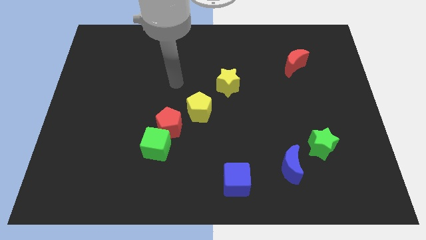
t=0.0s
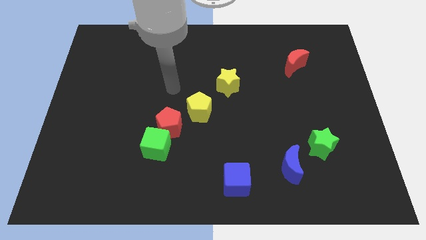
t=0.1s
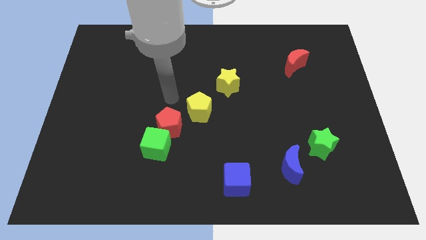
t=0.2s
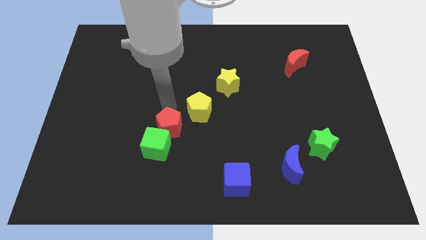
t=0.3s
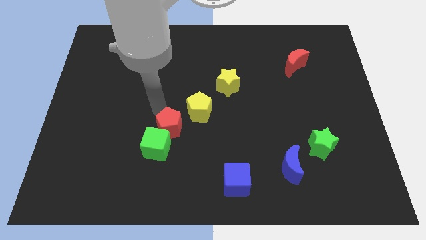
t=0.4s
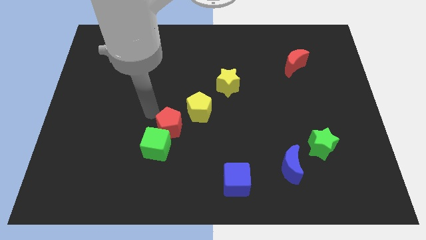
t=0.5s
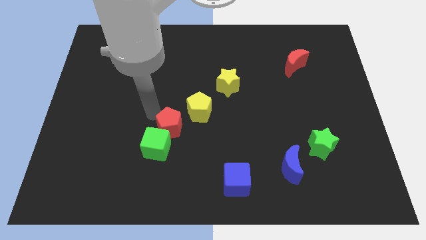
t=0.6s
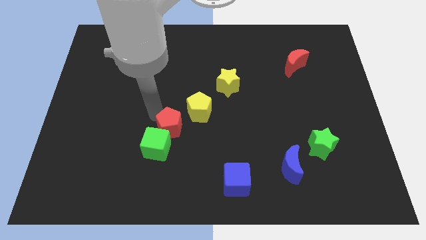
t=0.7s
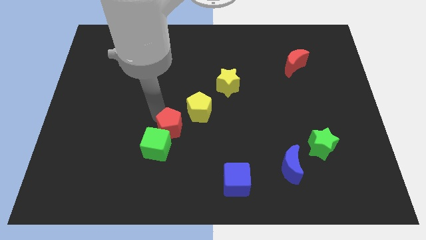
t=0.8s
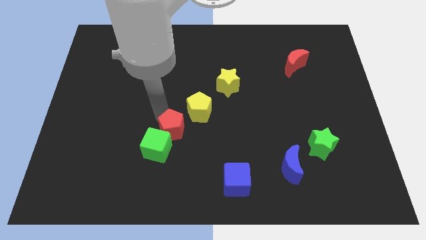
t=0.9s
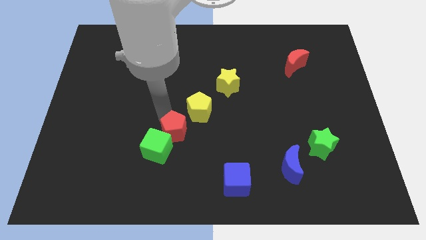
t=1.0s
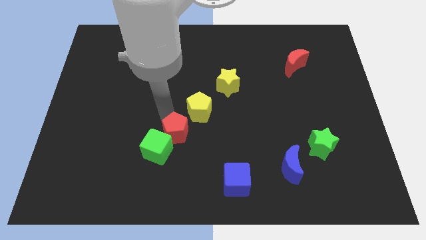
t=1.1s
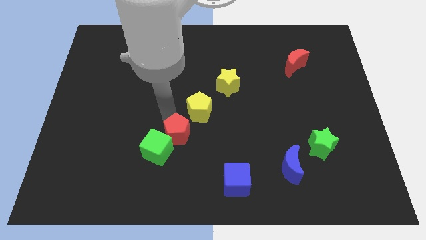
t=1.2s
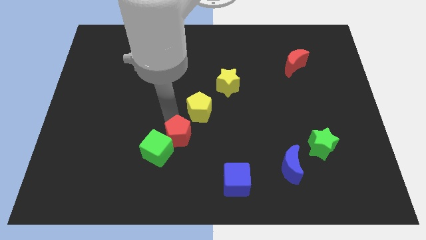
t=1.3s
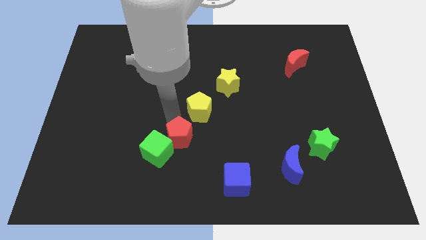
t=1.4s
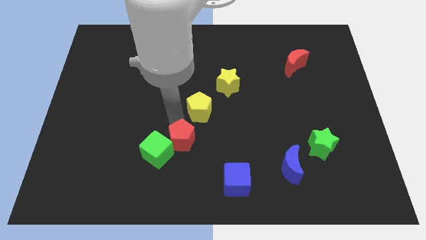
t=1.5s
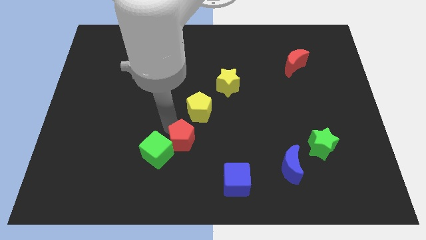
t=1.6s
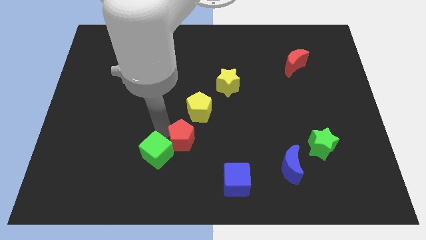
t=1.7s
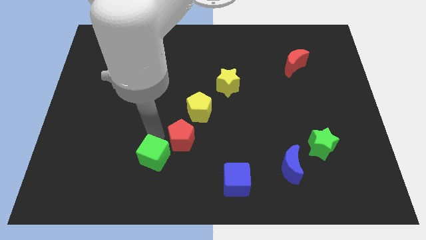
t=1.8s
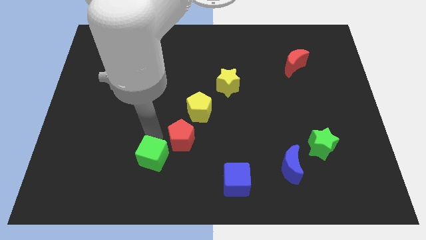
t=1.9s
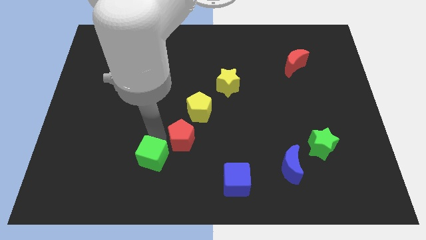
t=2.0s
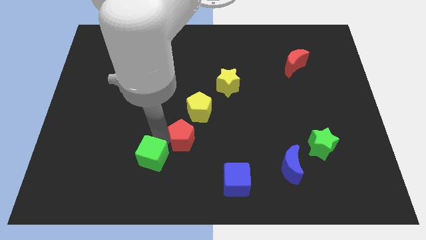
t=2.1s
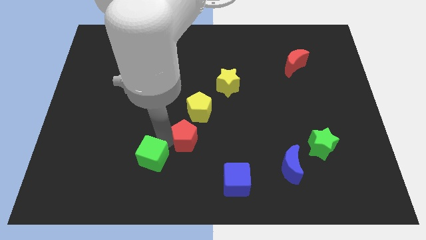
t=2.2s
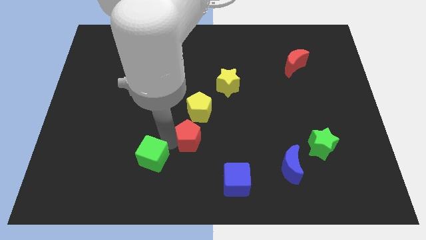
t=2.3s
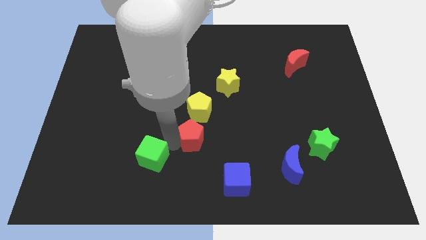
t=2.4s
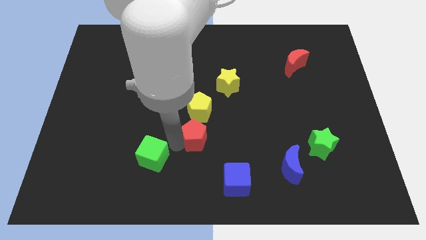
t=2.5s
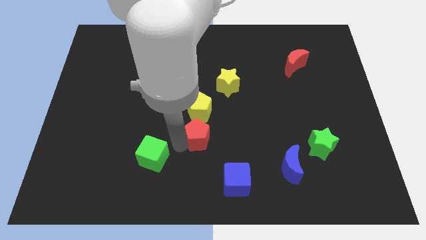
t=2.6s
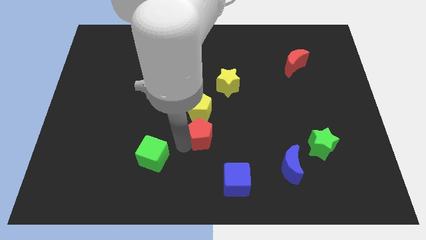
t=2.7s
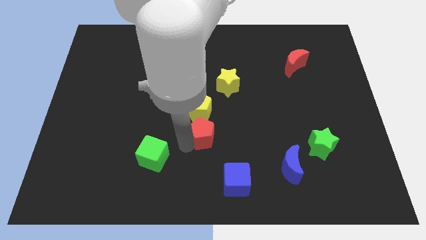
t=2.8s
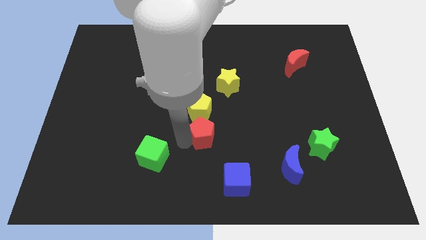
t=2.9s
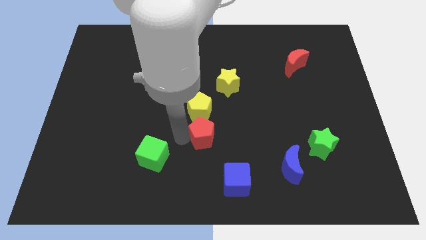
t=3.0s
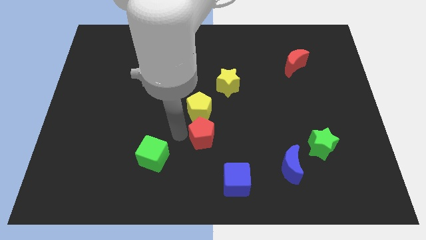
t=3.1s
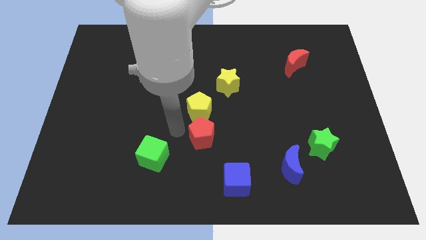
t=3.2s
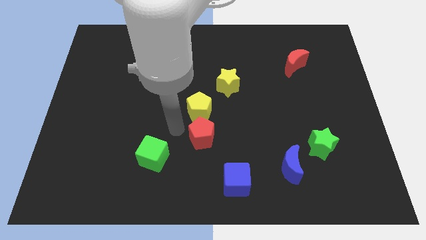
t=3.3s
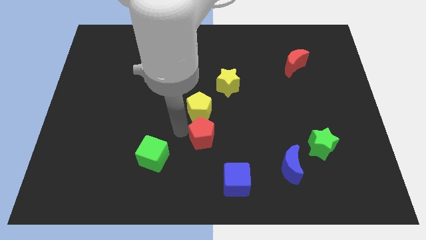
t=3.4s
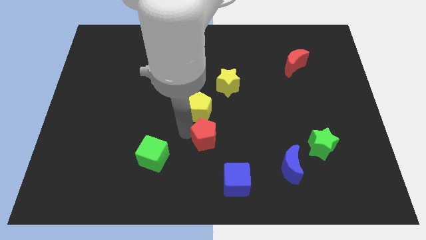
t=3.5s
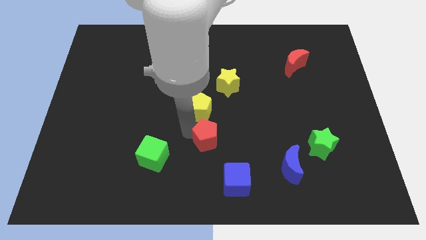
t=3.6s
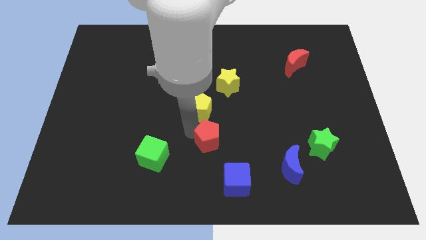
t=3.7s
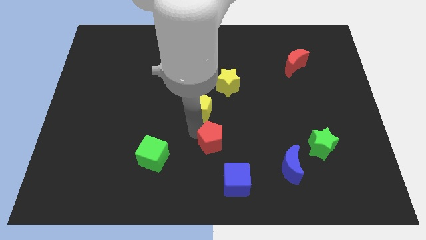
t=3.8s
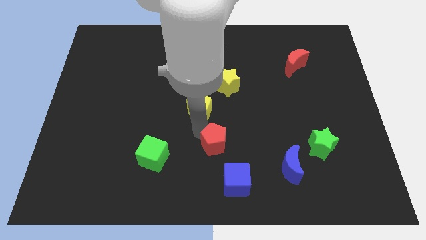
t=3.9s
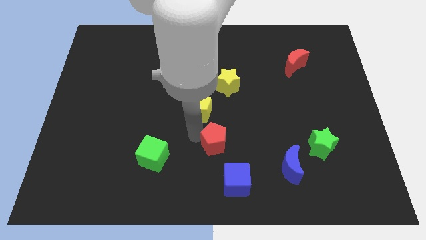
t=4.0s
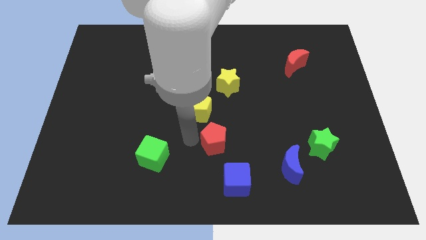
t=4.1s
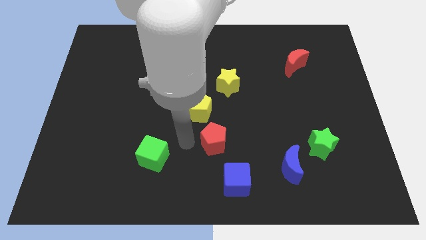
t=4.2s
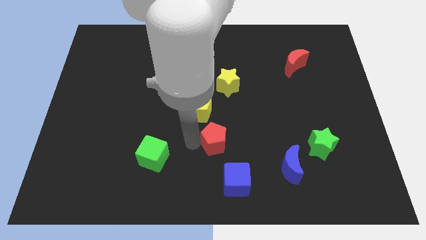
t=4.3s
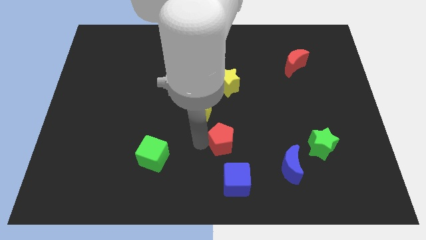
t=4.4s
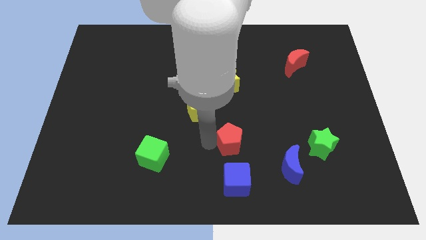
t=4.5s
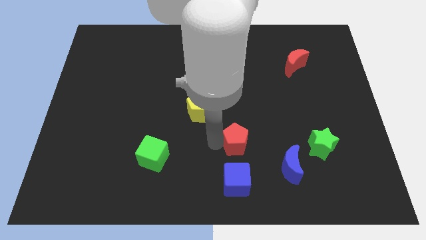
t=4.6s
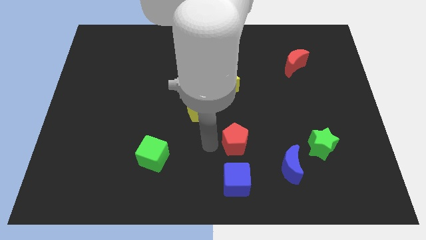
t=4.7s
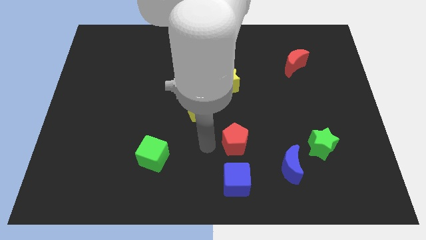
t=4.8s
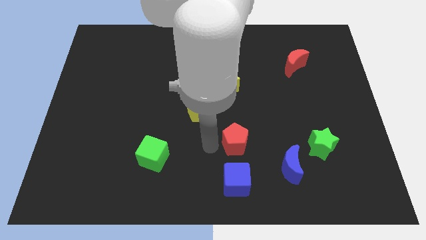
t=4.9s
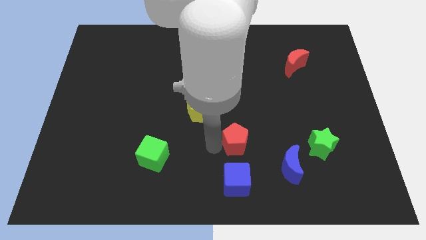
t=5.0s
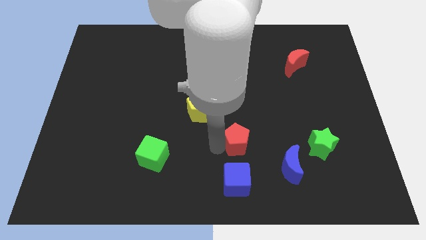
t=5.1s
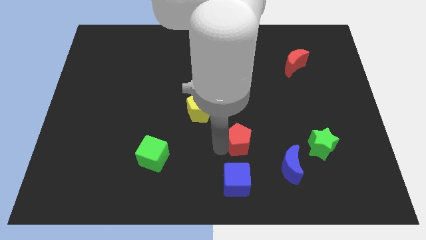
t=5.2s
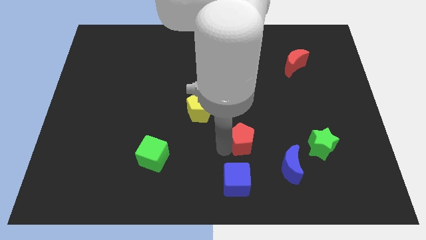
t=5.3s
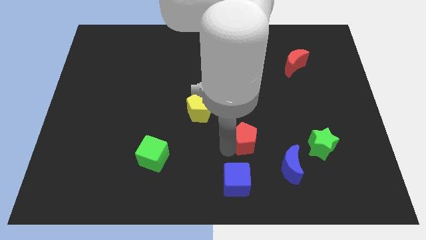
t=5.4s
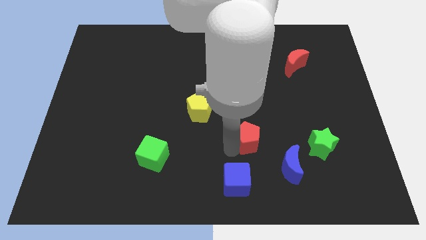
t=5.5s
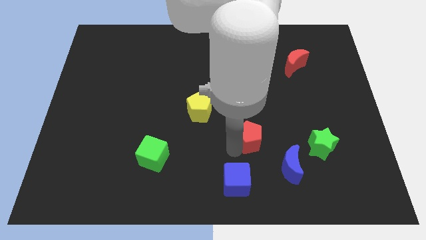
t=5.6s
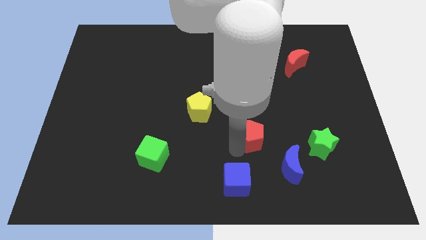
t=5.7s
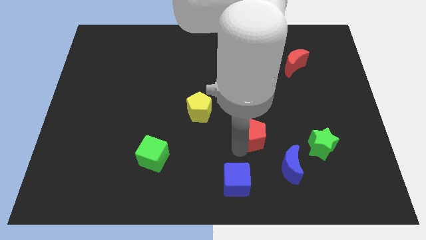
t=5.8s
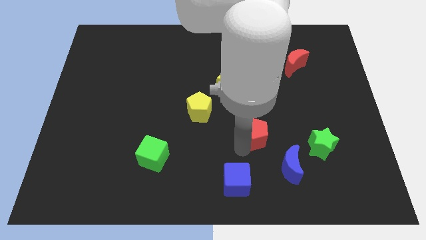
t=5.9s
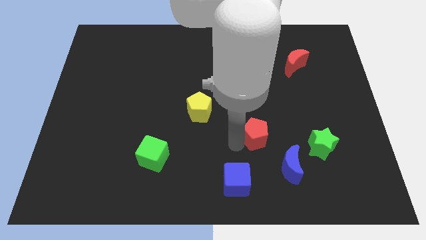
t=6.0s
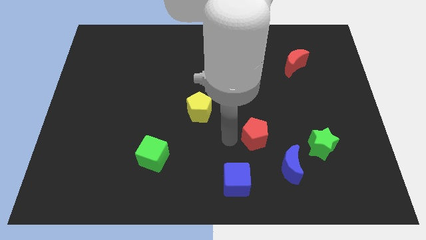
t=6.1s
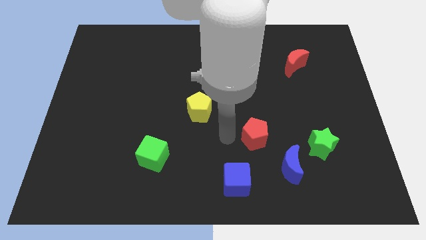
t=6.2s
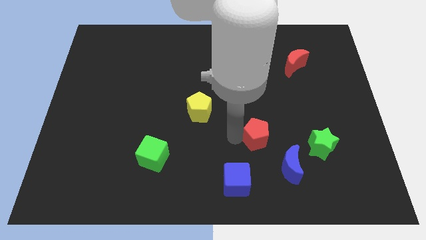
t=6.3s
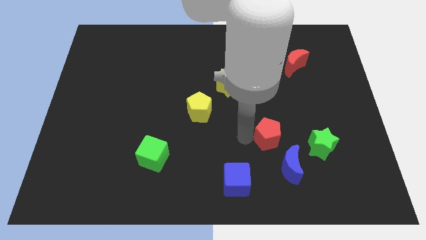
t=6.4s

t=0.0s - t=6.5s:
move the red pentagon to the right

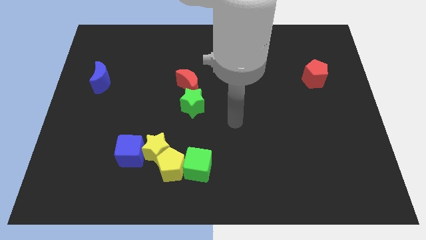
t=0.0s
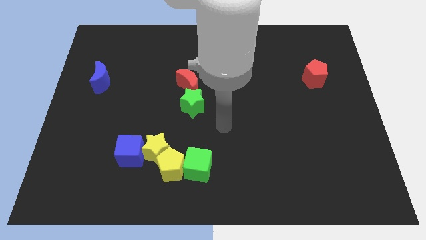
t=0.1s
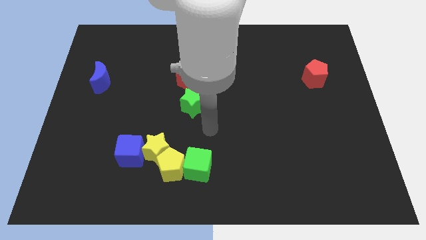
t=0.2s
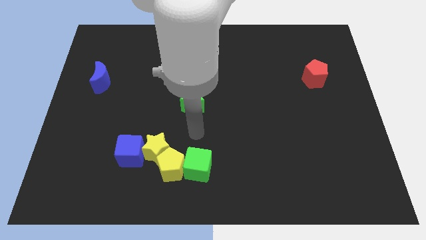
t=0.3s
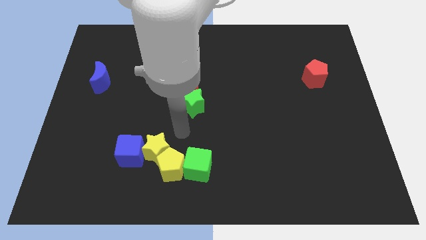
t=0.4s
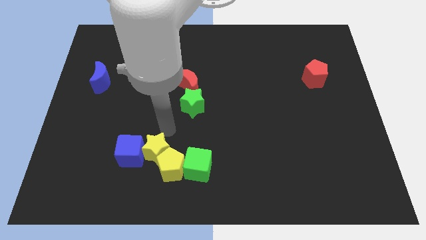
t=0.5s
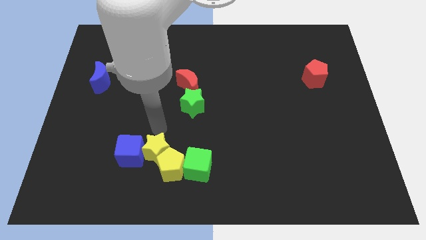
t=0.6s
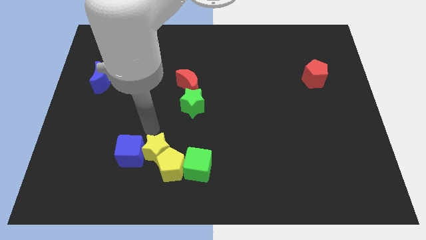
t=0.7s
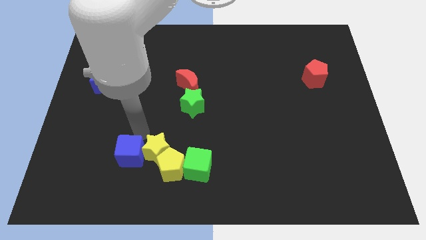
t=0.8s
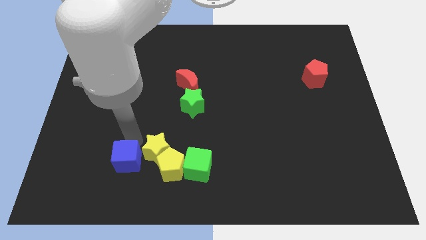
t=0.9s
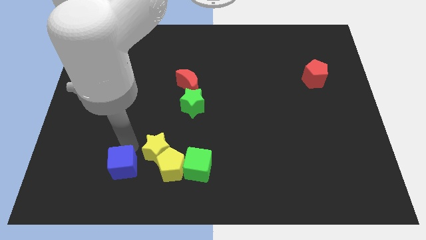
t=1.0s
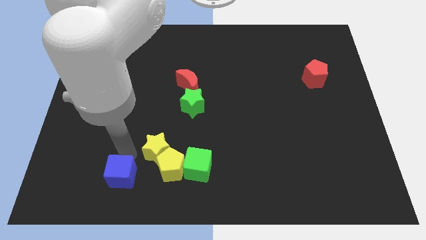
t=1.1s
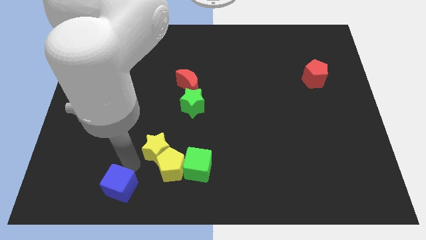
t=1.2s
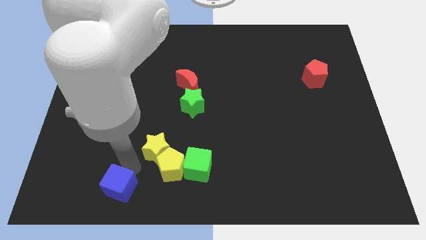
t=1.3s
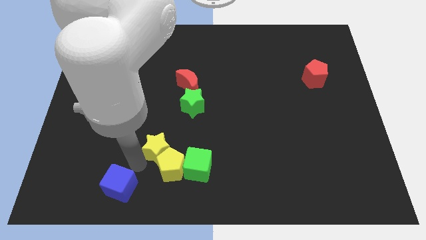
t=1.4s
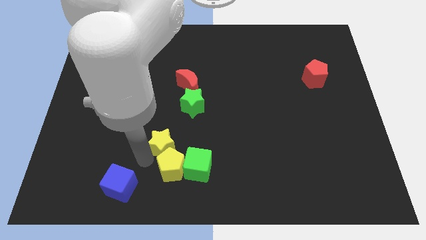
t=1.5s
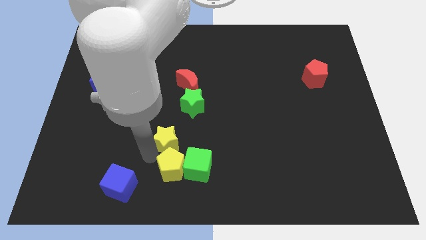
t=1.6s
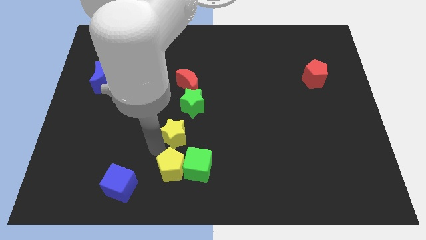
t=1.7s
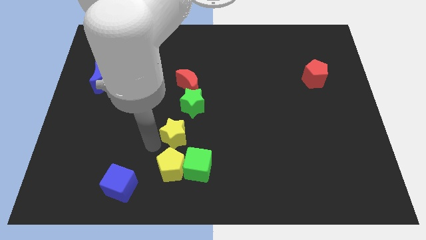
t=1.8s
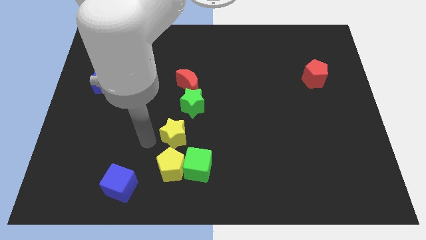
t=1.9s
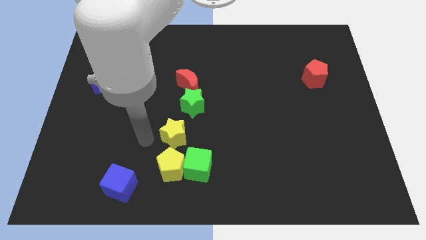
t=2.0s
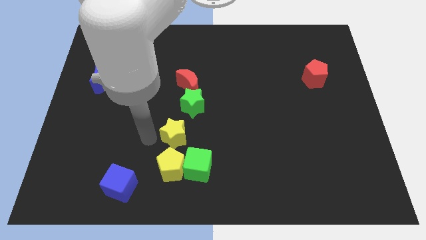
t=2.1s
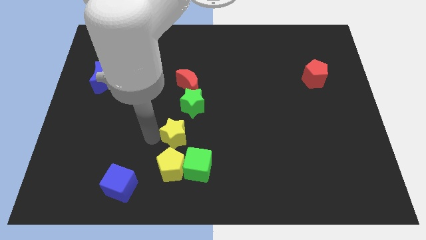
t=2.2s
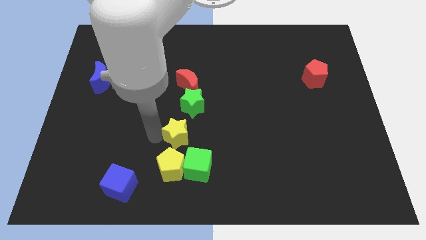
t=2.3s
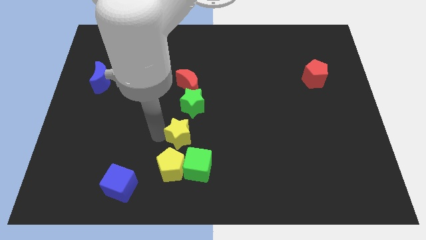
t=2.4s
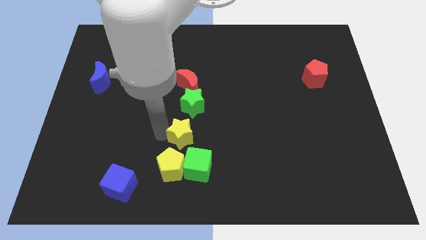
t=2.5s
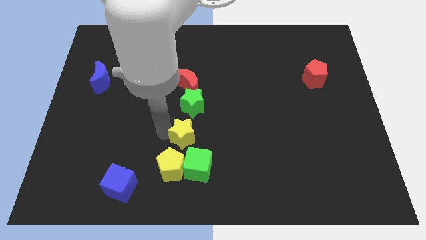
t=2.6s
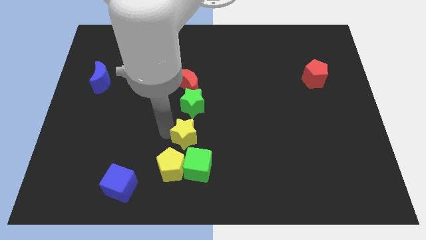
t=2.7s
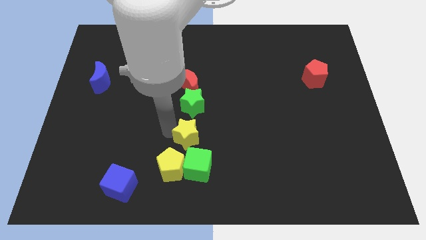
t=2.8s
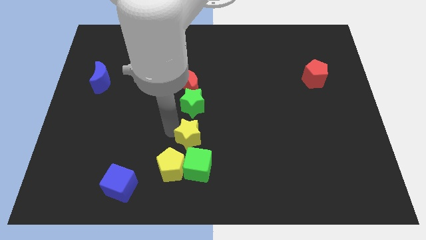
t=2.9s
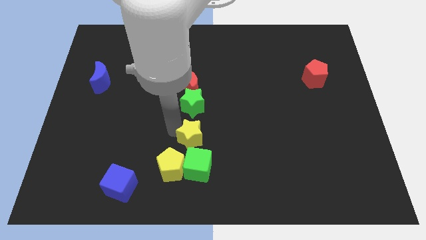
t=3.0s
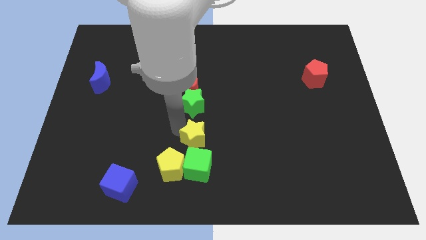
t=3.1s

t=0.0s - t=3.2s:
slightly push the yellow star right
